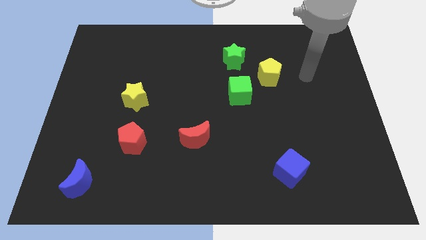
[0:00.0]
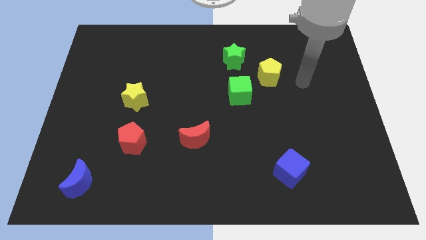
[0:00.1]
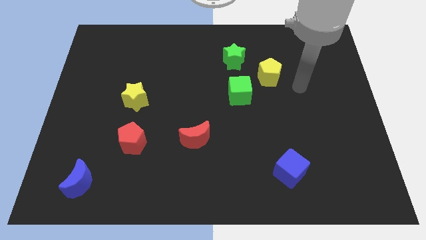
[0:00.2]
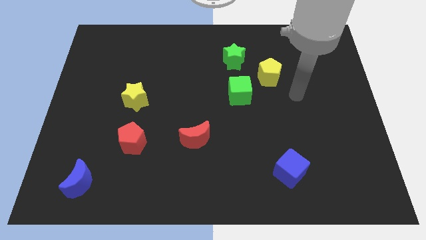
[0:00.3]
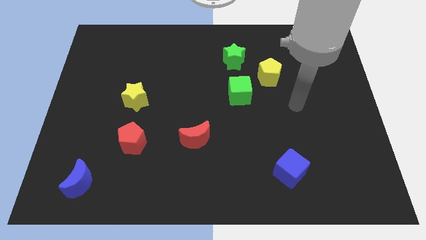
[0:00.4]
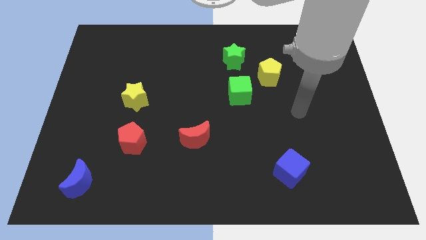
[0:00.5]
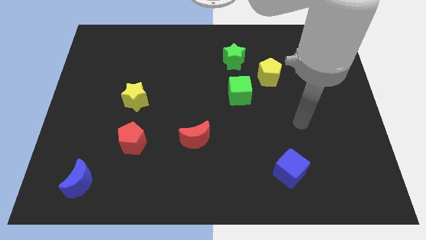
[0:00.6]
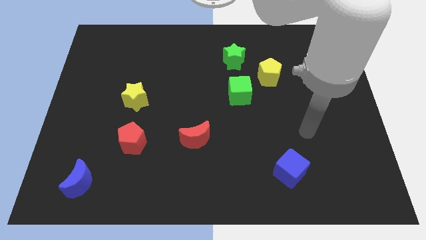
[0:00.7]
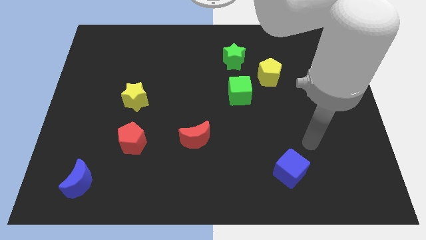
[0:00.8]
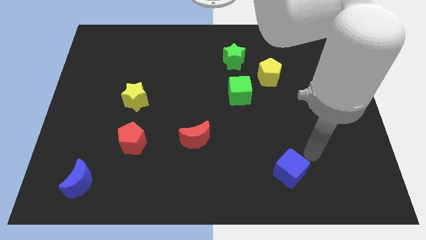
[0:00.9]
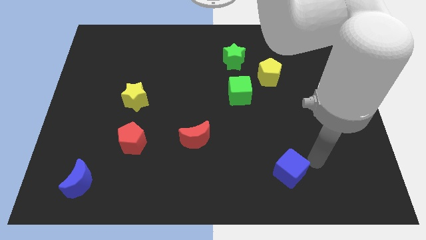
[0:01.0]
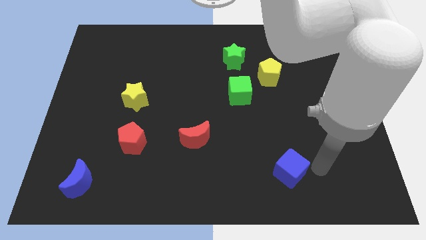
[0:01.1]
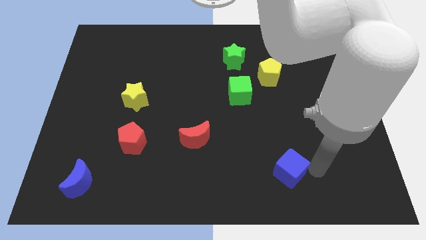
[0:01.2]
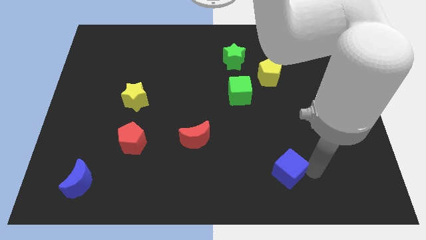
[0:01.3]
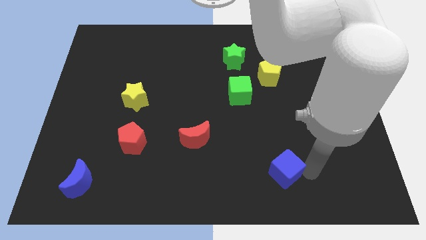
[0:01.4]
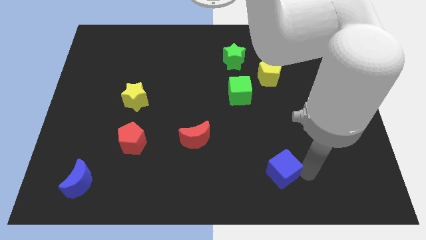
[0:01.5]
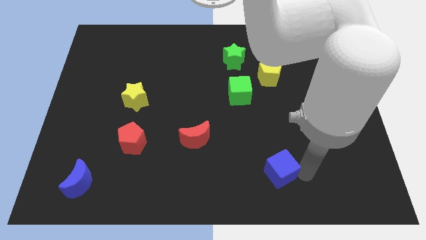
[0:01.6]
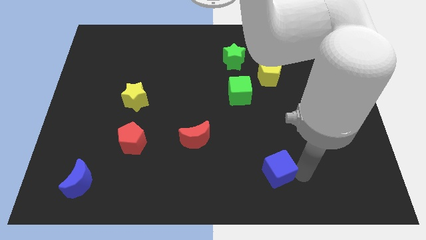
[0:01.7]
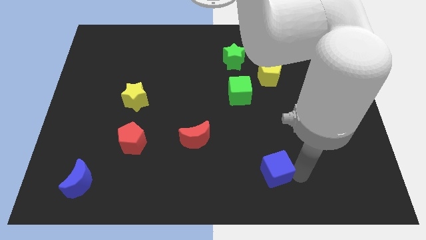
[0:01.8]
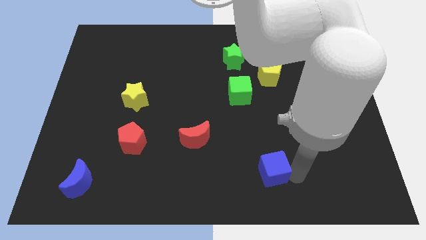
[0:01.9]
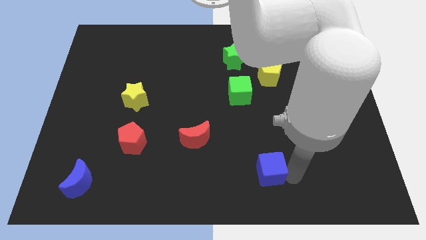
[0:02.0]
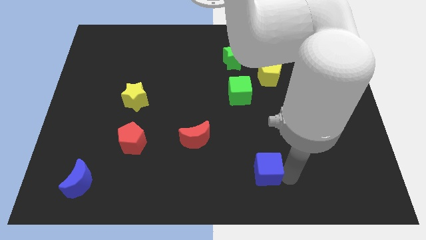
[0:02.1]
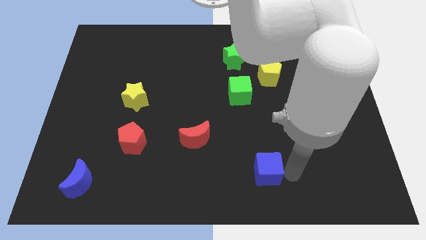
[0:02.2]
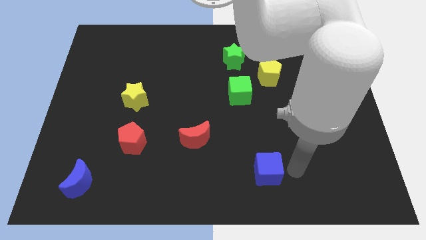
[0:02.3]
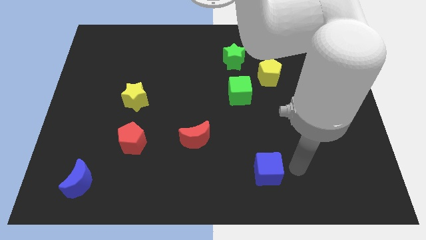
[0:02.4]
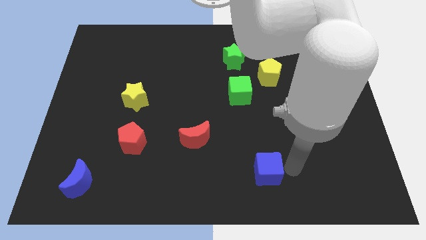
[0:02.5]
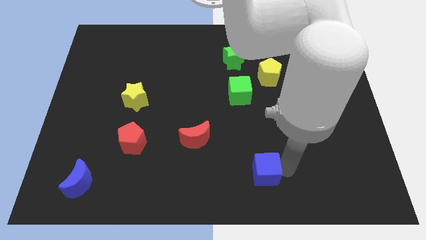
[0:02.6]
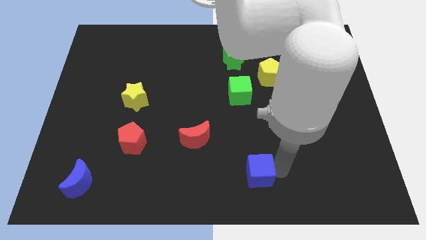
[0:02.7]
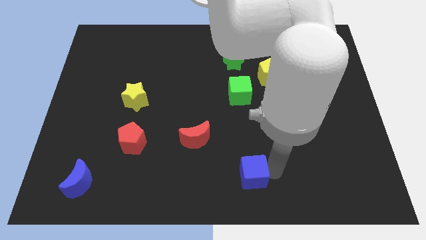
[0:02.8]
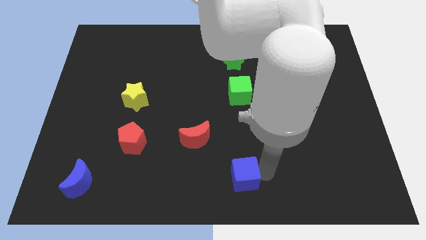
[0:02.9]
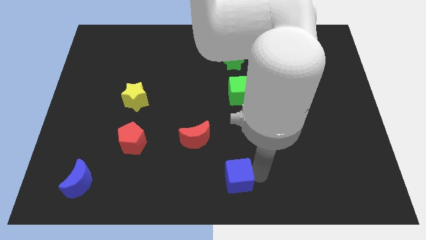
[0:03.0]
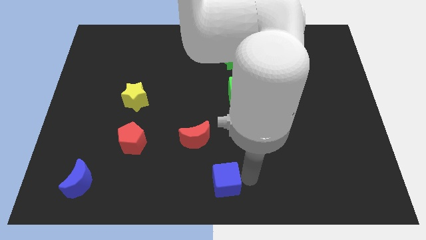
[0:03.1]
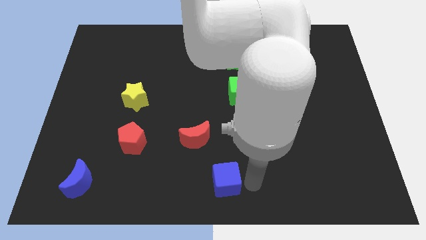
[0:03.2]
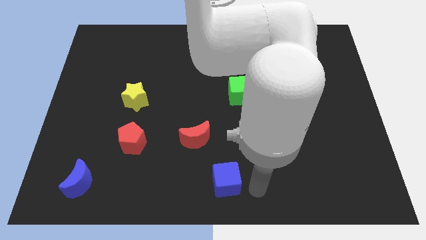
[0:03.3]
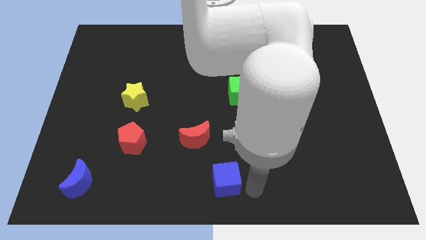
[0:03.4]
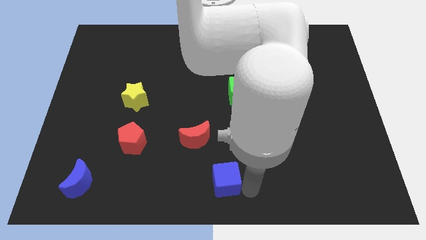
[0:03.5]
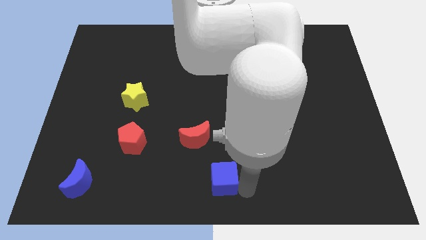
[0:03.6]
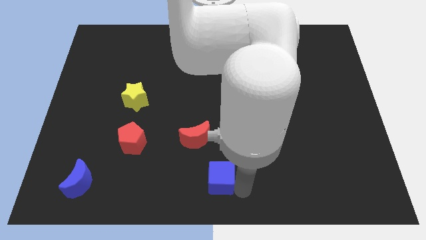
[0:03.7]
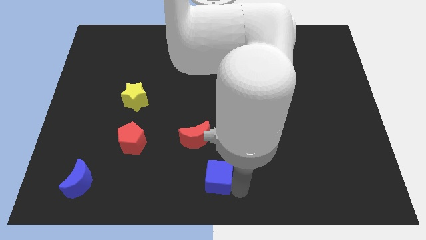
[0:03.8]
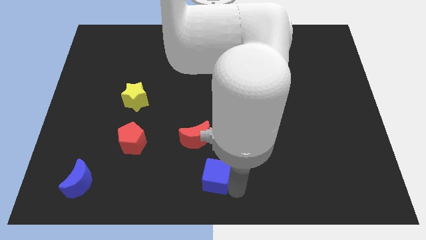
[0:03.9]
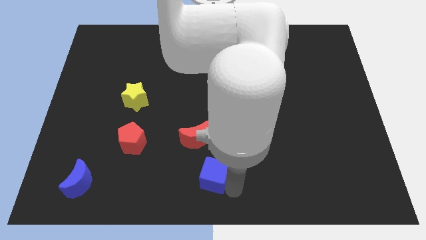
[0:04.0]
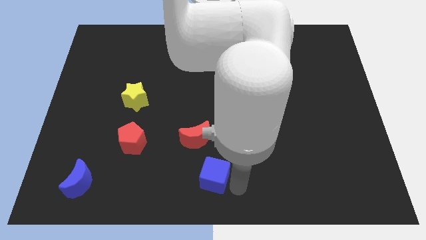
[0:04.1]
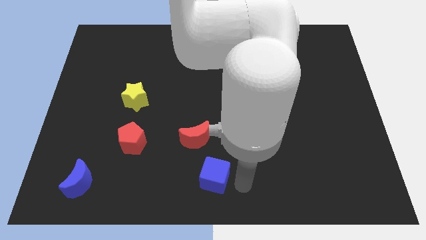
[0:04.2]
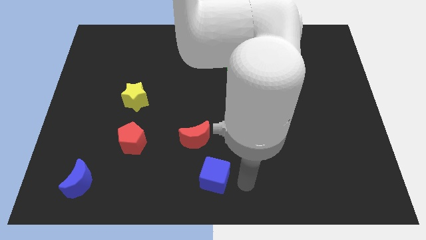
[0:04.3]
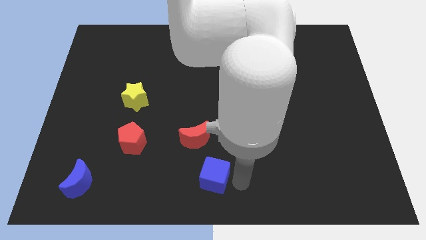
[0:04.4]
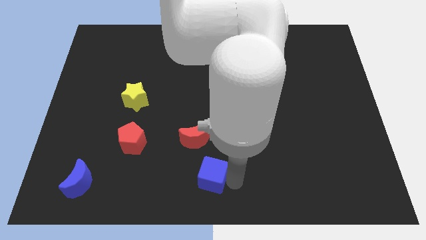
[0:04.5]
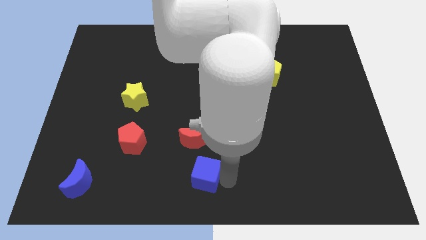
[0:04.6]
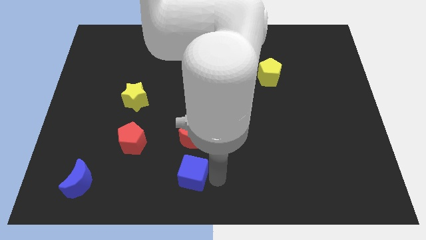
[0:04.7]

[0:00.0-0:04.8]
move the blue cube left

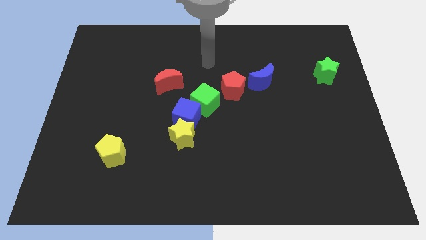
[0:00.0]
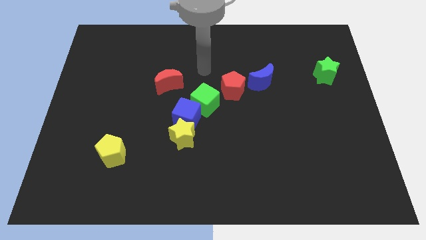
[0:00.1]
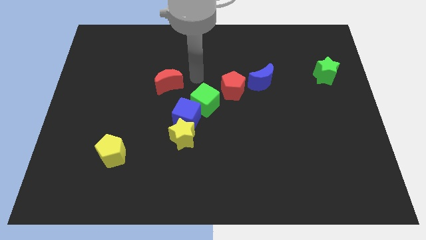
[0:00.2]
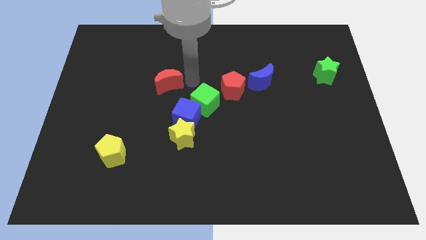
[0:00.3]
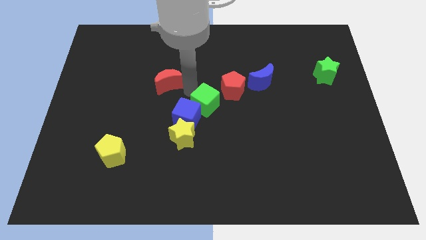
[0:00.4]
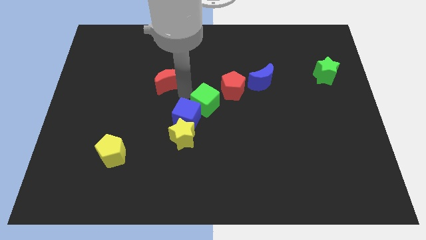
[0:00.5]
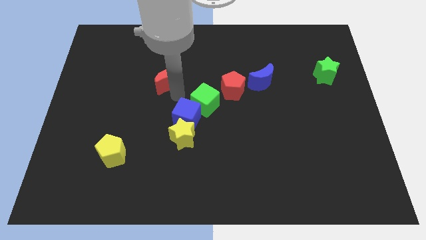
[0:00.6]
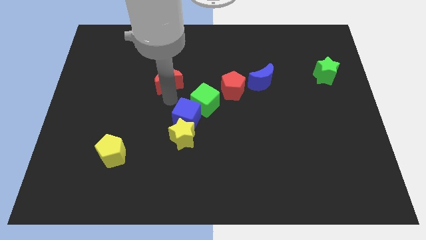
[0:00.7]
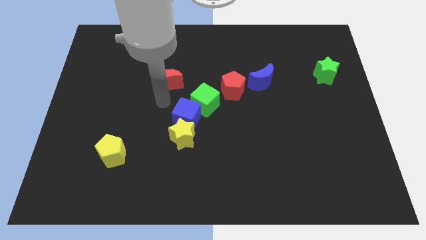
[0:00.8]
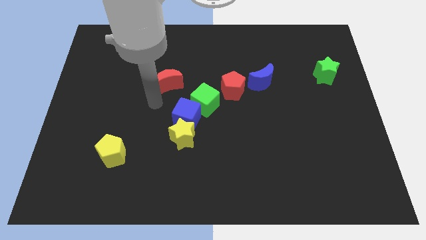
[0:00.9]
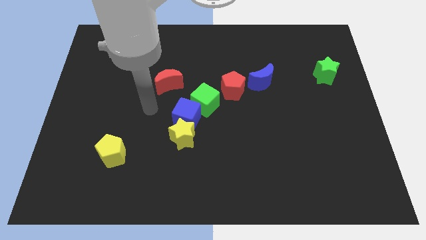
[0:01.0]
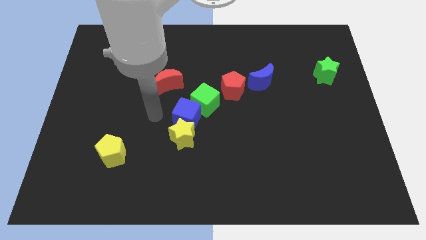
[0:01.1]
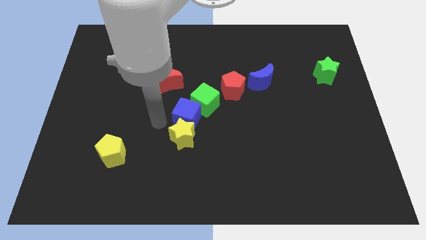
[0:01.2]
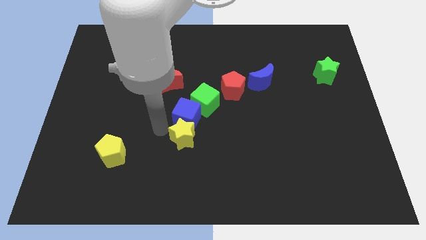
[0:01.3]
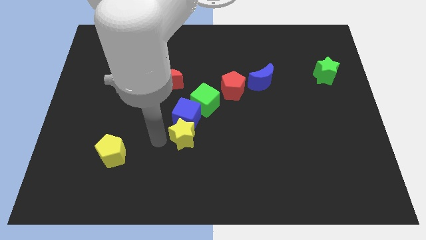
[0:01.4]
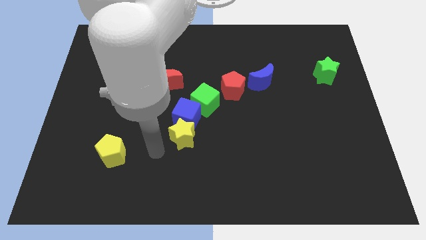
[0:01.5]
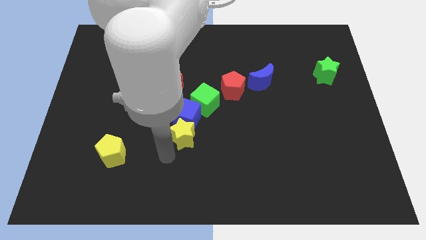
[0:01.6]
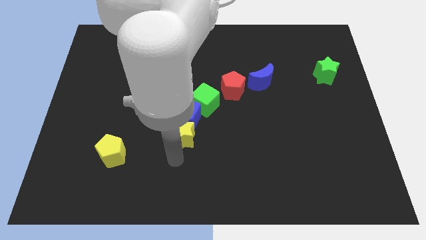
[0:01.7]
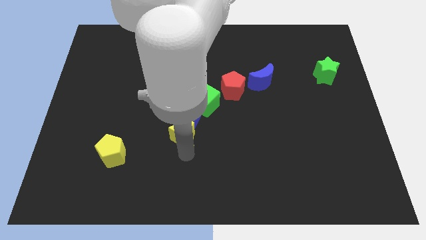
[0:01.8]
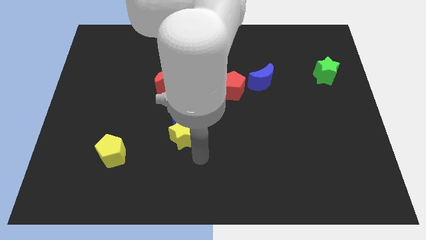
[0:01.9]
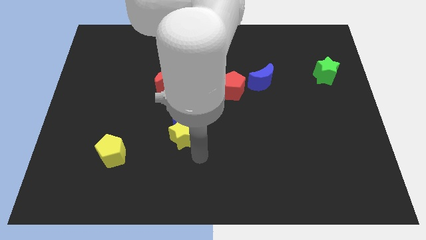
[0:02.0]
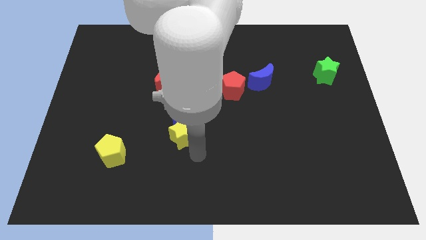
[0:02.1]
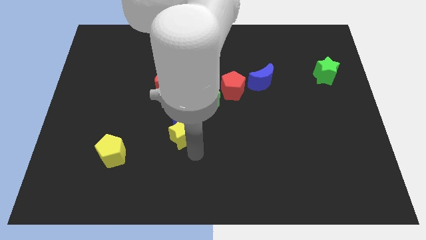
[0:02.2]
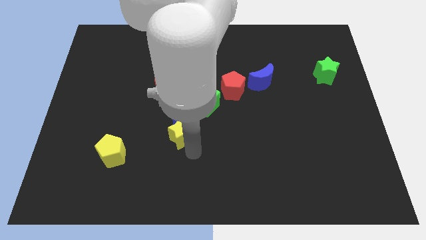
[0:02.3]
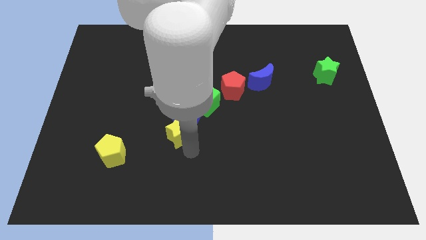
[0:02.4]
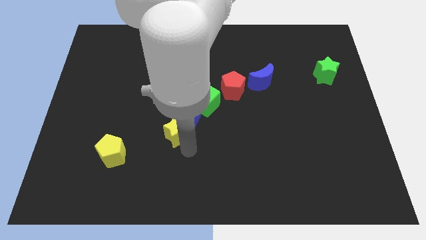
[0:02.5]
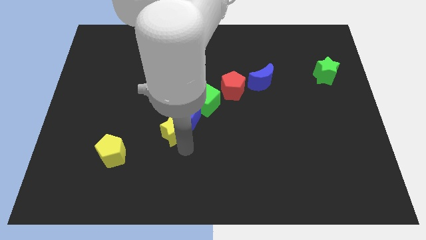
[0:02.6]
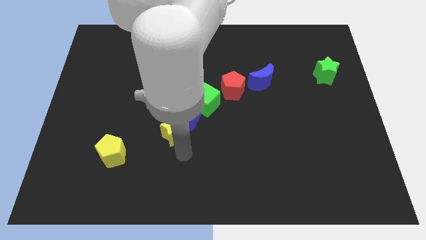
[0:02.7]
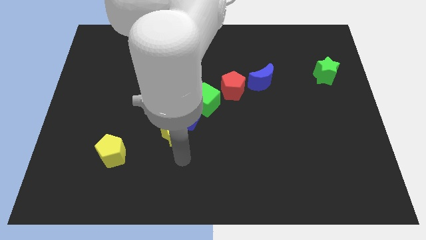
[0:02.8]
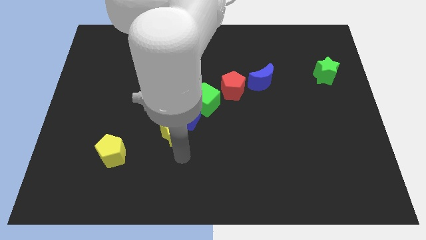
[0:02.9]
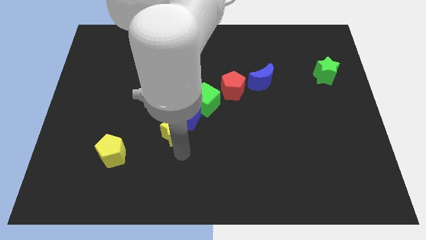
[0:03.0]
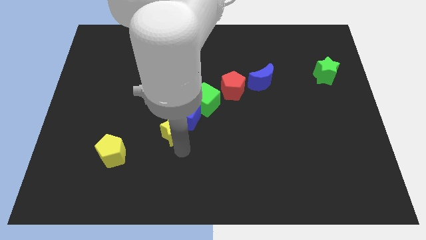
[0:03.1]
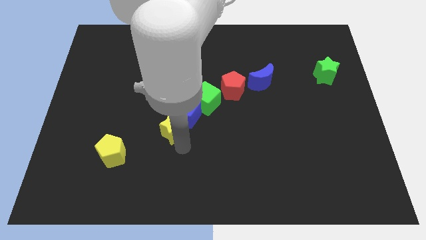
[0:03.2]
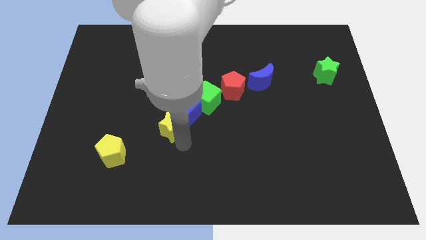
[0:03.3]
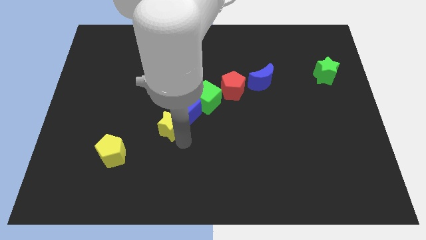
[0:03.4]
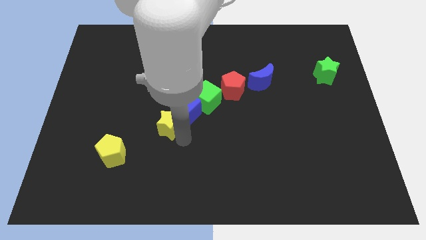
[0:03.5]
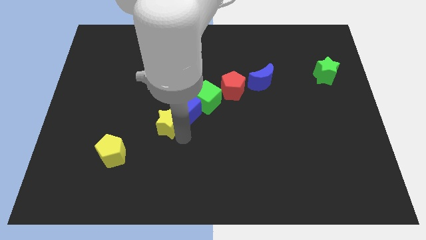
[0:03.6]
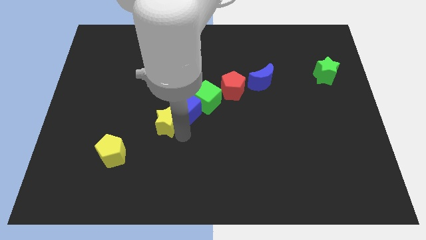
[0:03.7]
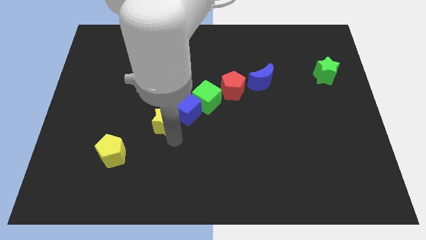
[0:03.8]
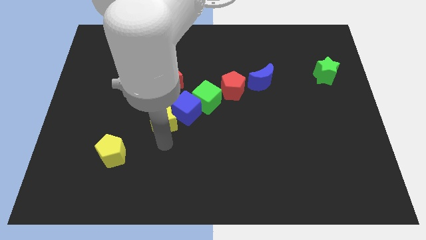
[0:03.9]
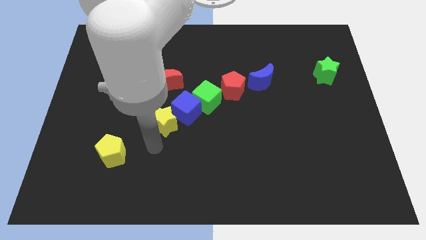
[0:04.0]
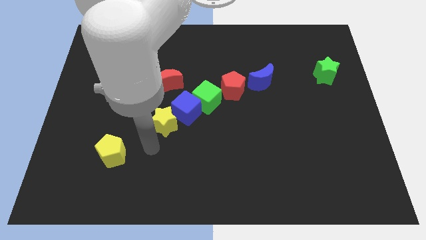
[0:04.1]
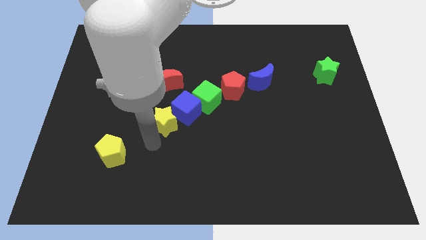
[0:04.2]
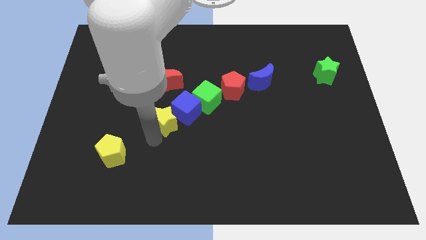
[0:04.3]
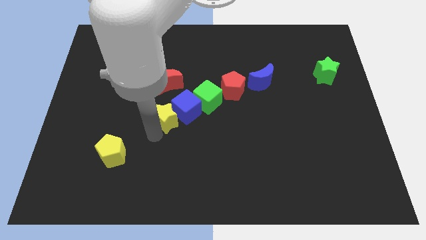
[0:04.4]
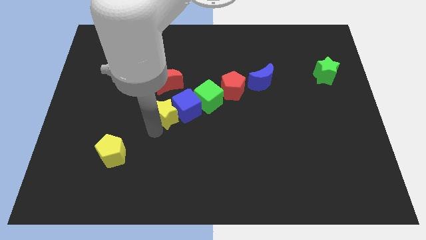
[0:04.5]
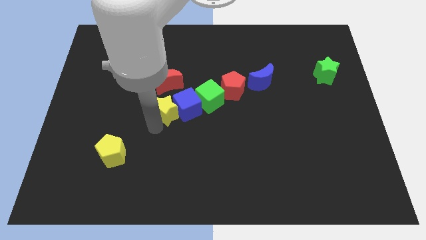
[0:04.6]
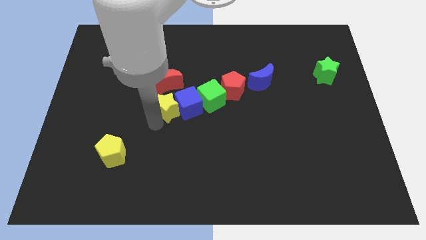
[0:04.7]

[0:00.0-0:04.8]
slide the yellow star up a bit
